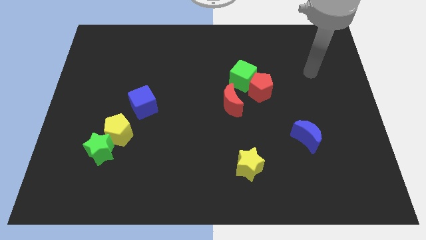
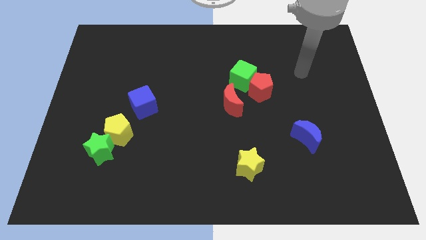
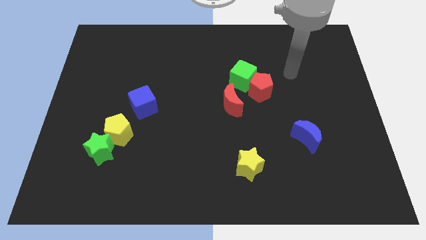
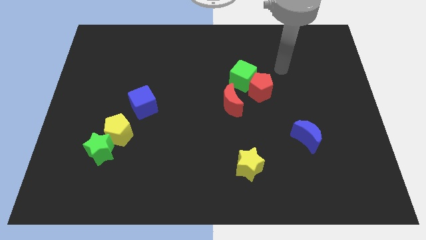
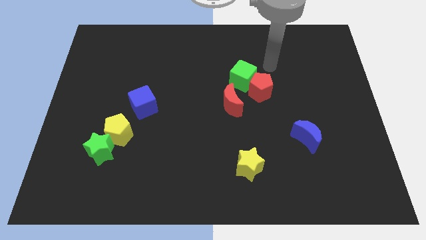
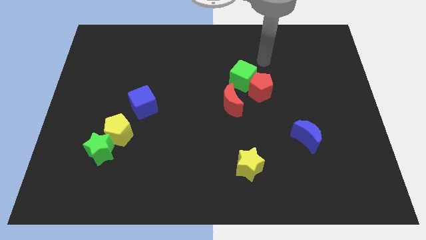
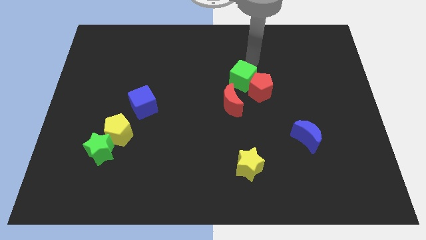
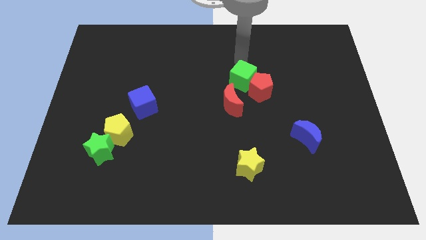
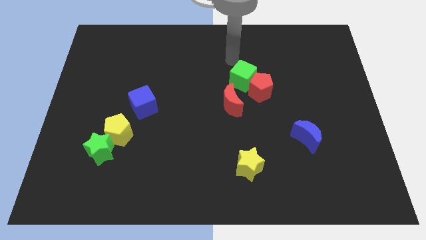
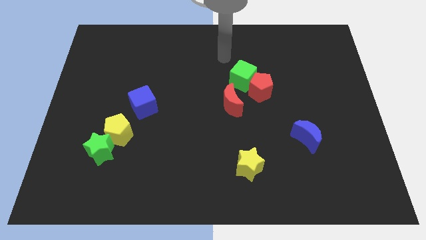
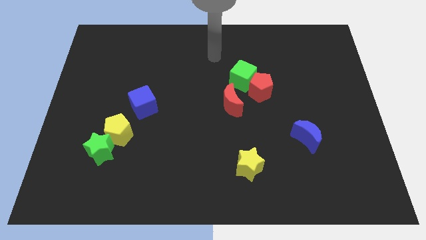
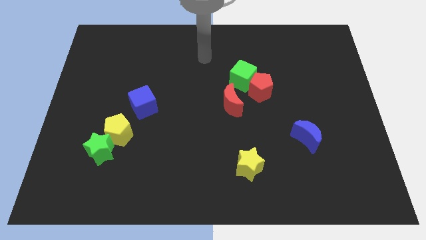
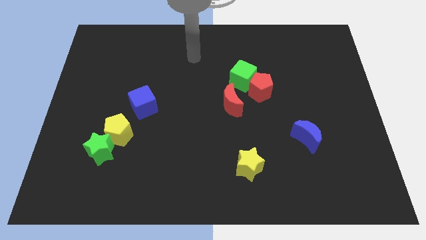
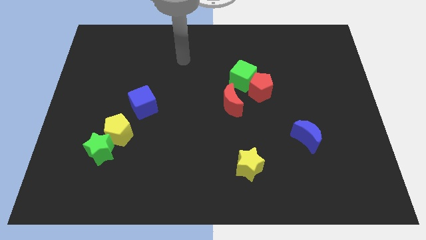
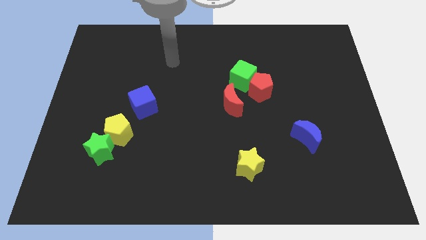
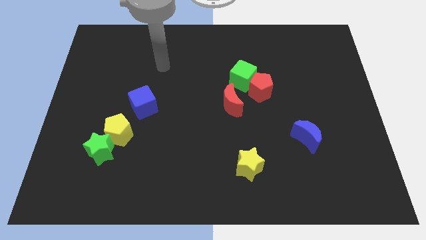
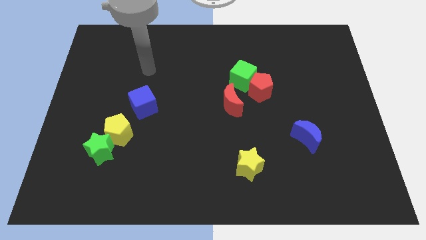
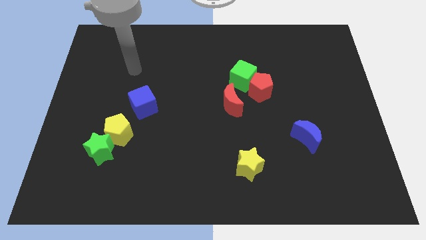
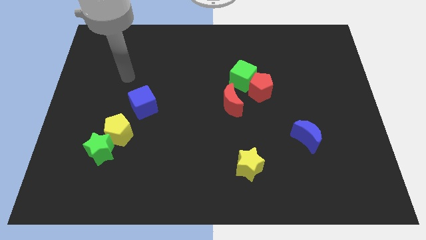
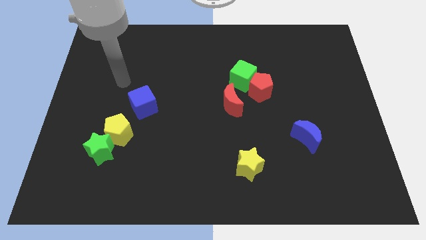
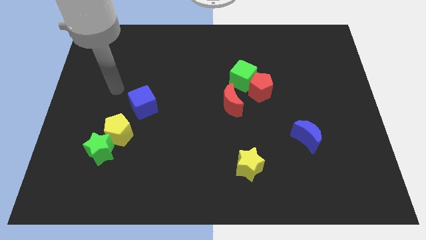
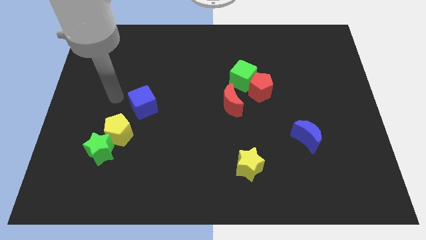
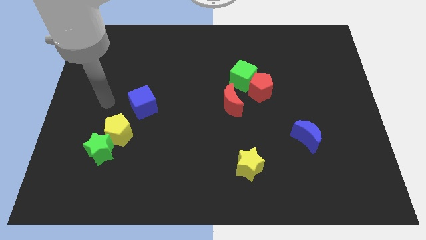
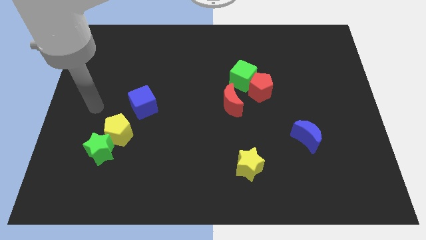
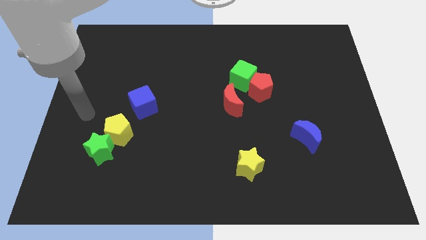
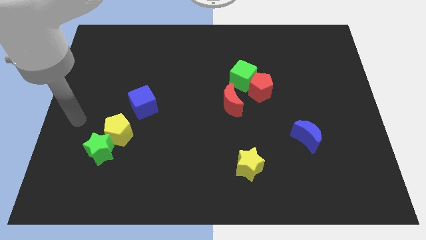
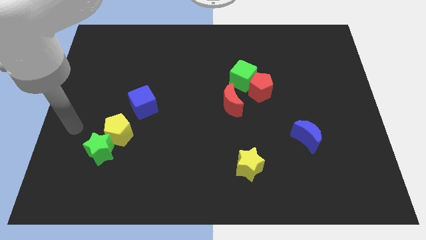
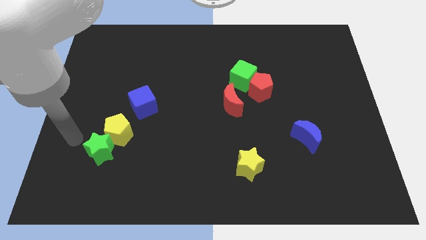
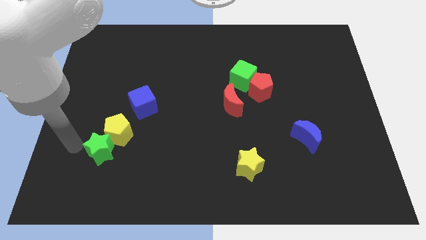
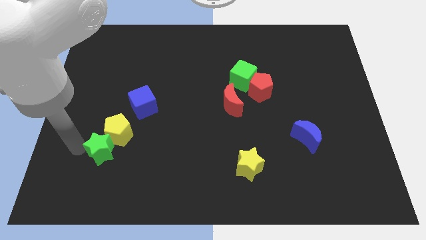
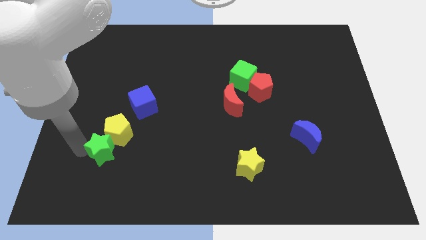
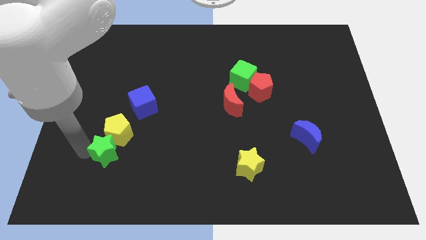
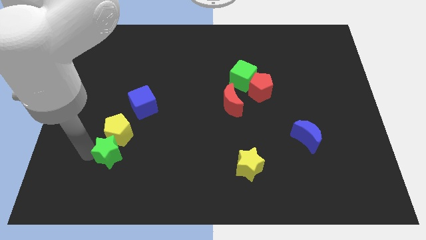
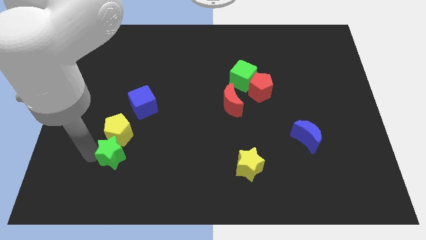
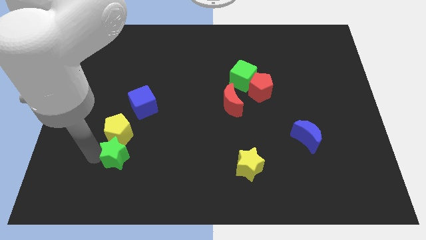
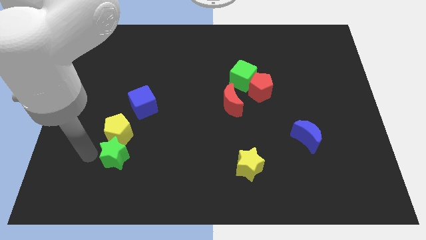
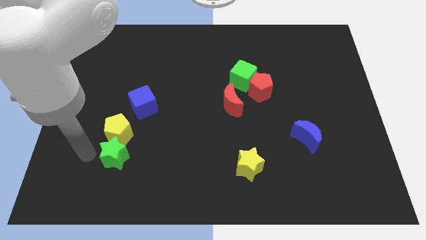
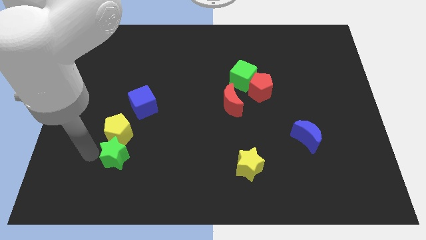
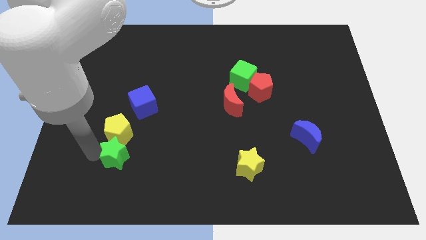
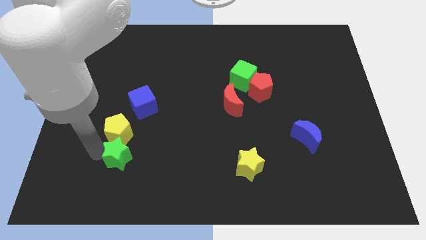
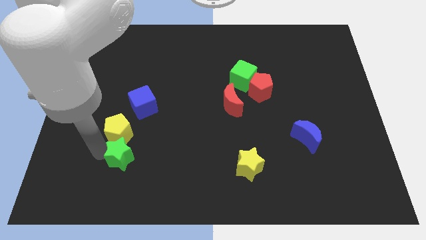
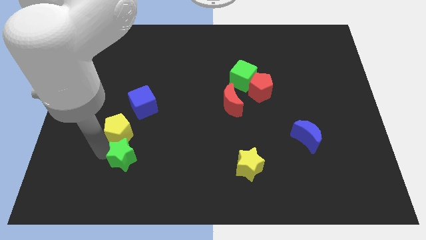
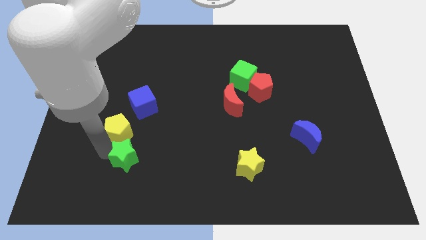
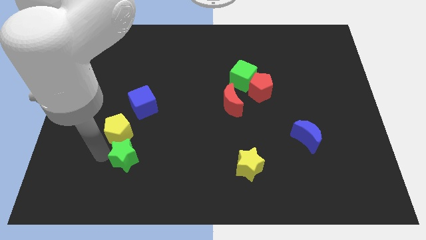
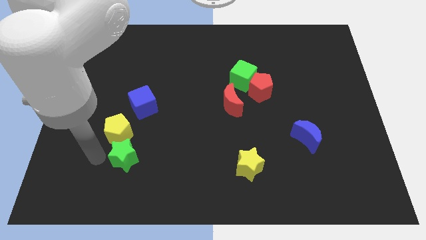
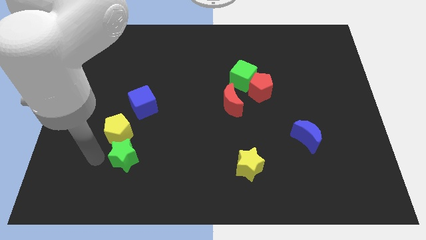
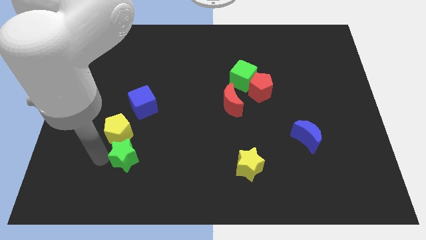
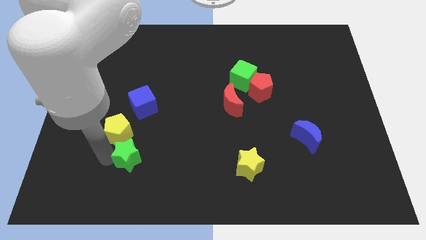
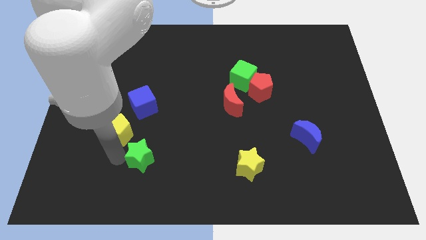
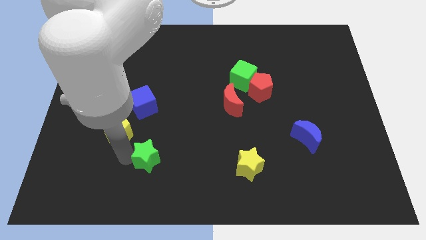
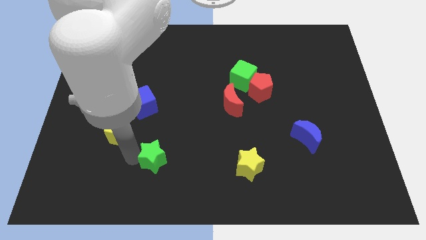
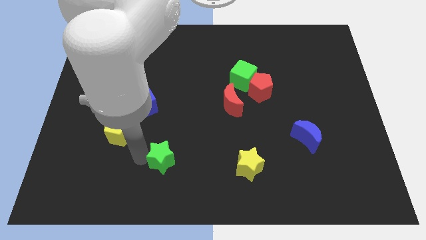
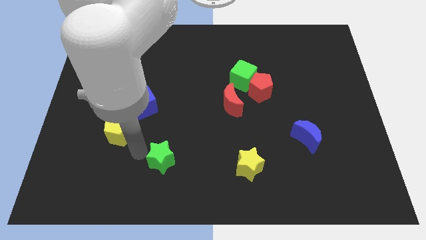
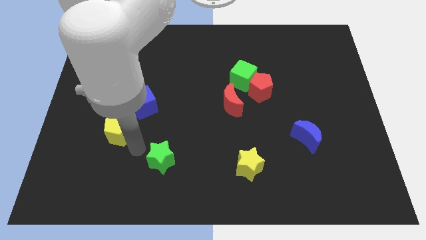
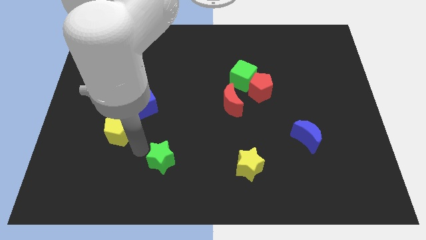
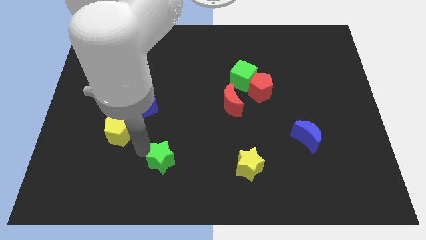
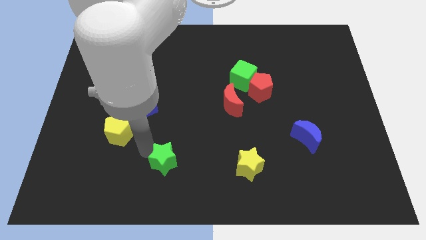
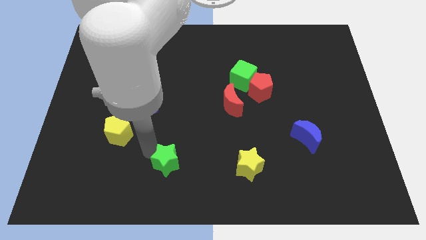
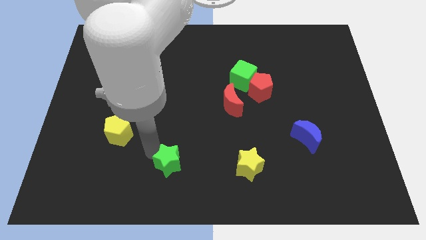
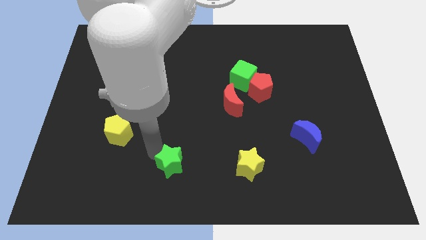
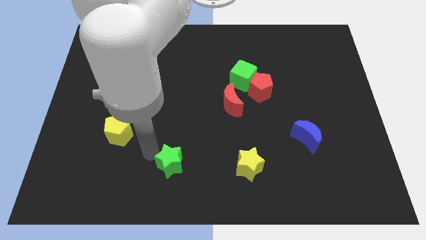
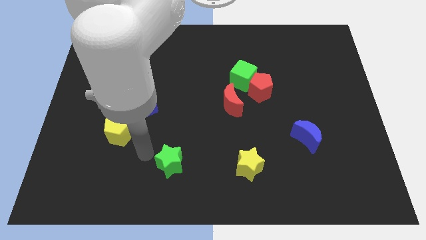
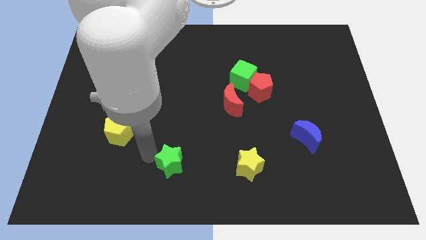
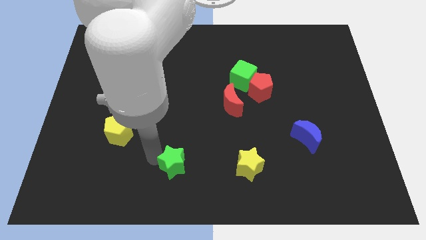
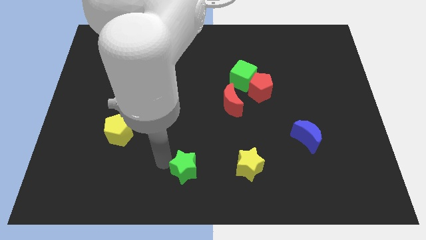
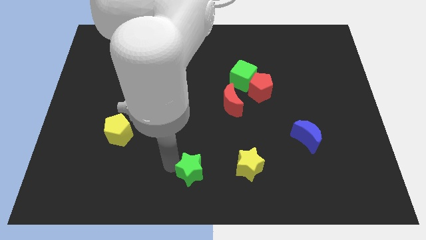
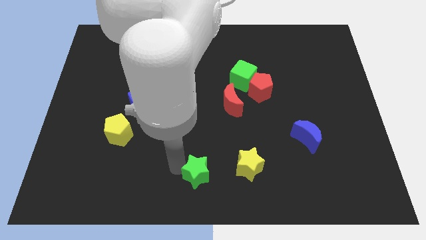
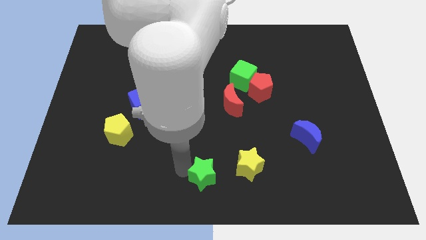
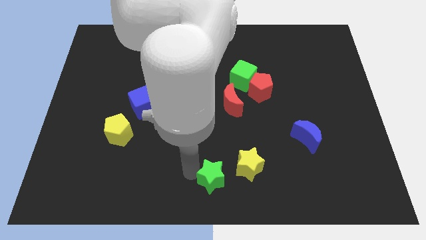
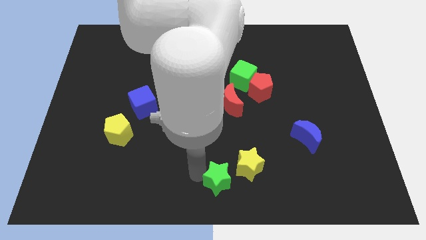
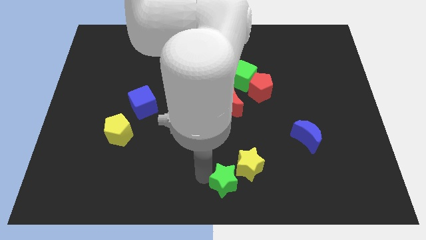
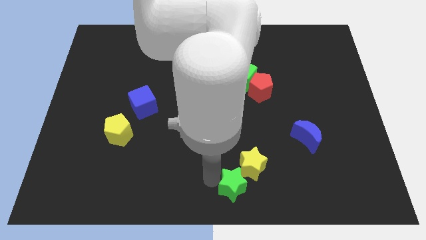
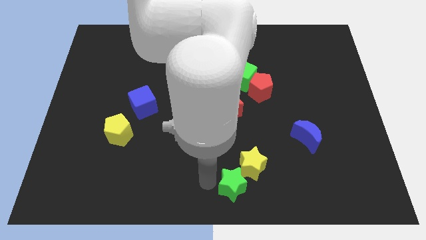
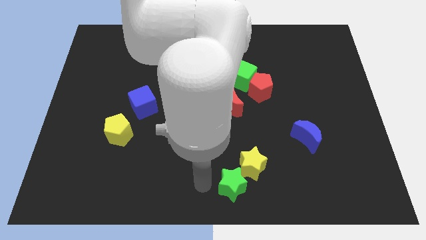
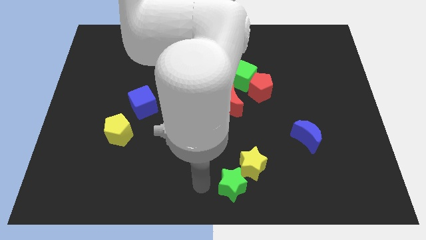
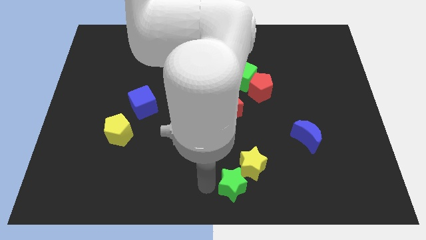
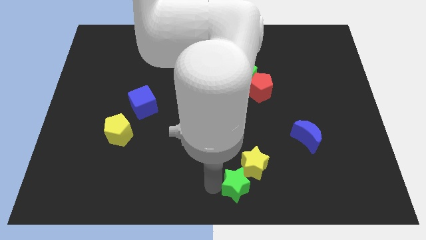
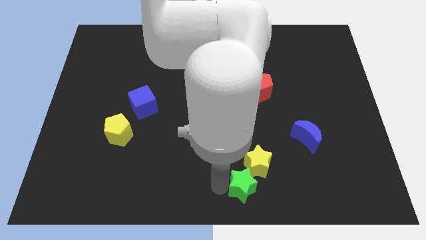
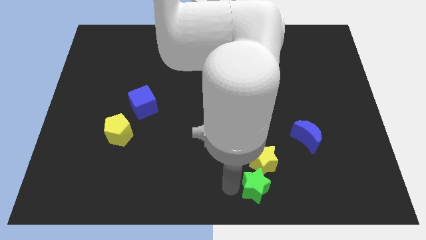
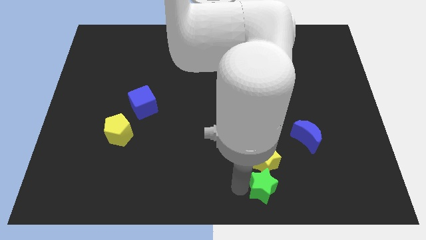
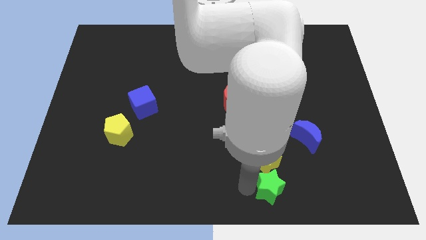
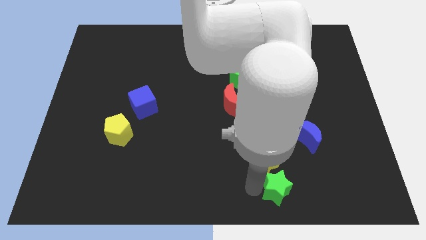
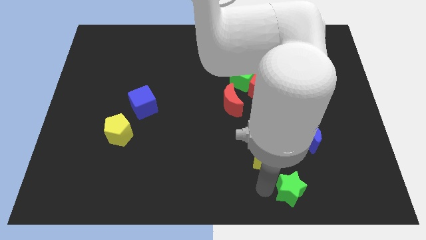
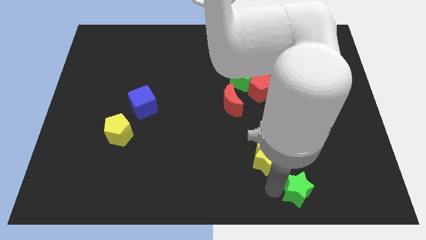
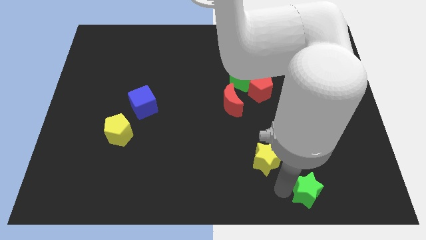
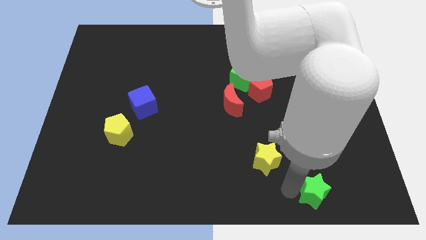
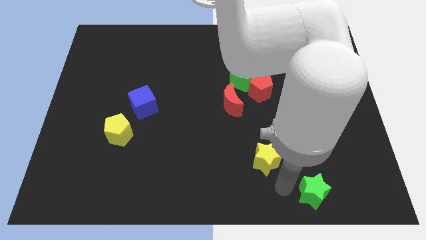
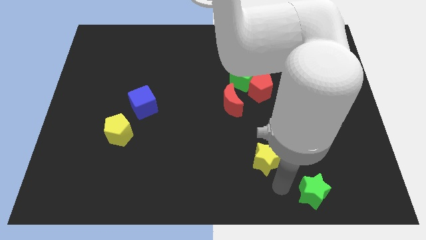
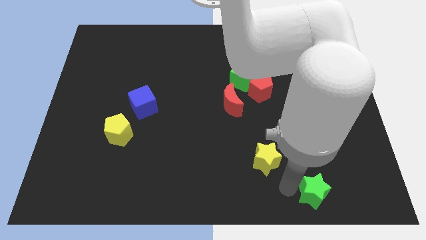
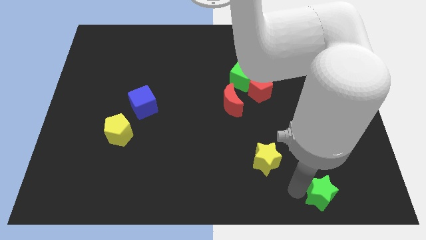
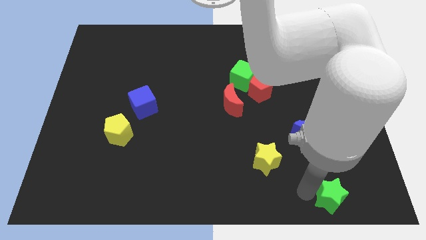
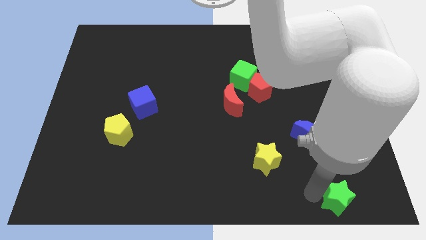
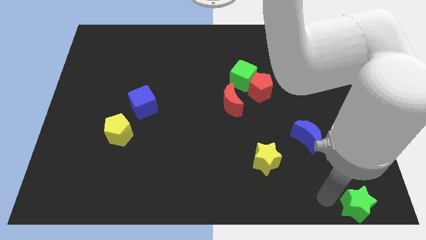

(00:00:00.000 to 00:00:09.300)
push the green star to the bottom right
